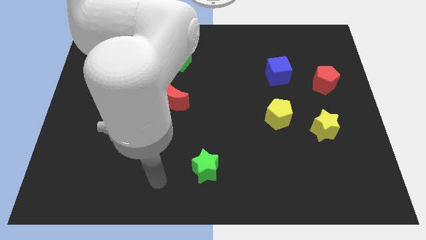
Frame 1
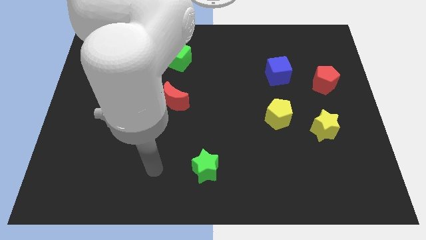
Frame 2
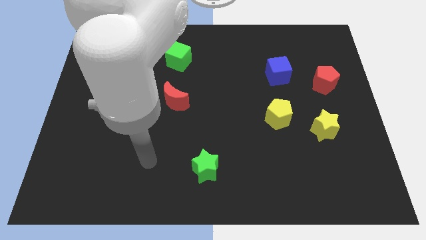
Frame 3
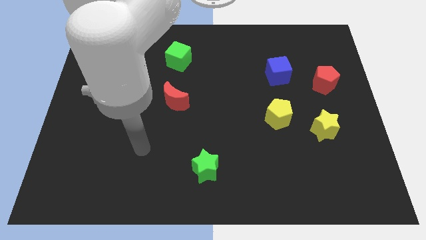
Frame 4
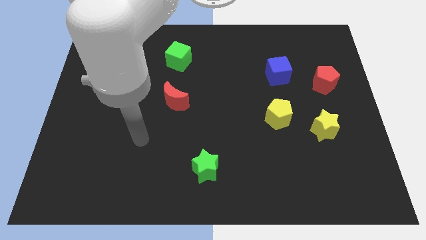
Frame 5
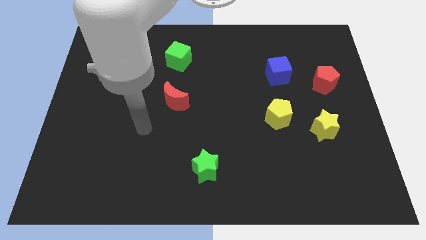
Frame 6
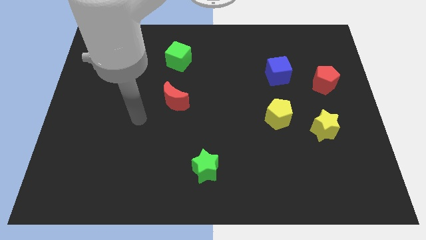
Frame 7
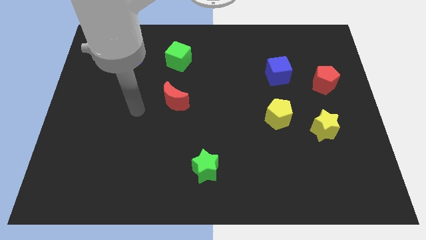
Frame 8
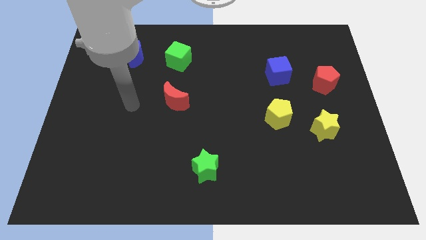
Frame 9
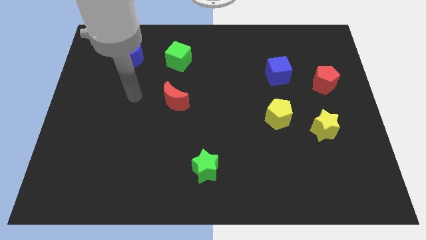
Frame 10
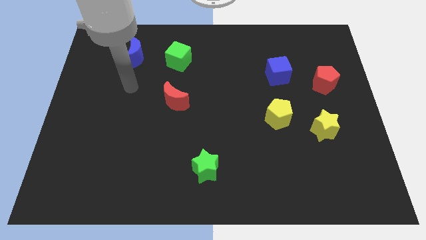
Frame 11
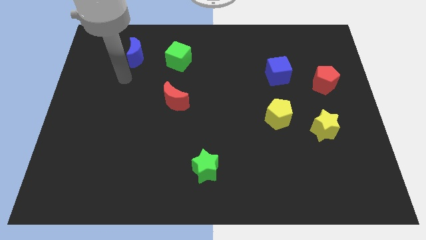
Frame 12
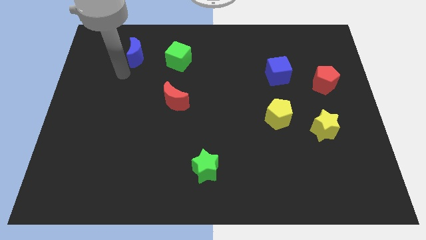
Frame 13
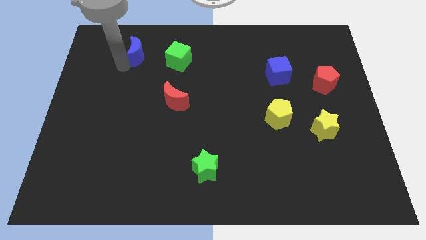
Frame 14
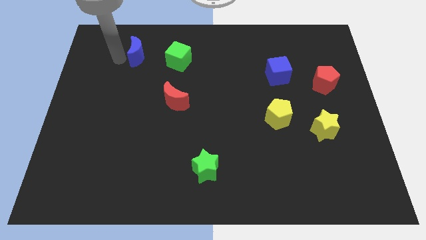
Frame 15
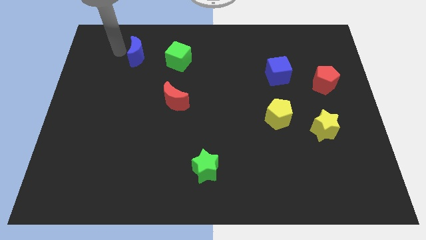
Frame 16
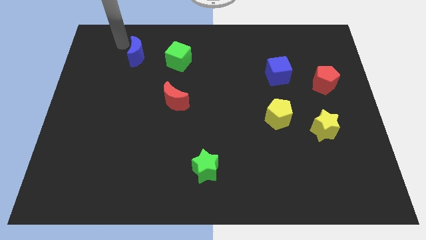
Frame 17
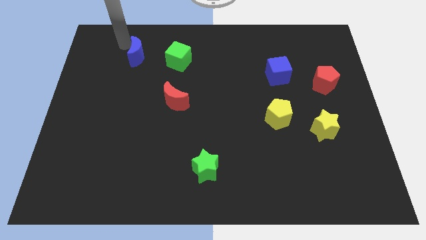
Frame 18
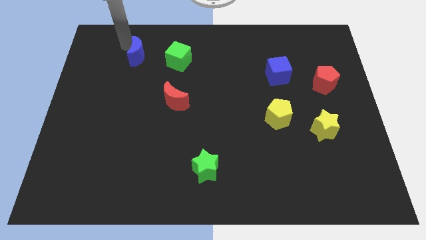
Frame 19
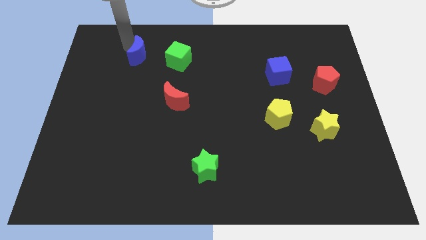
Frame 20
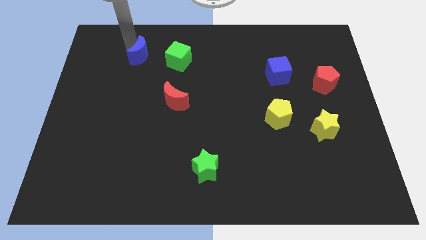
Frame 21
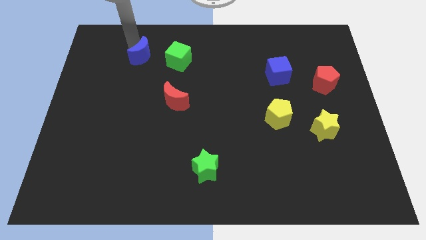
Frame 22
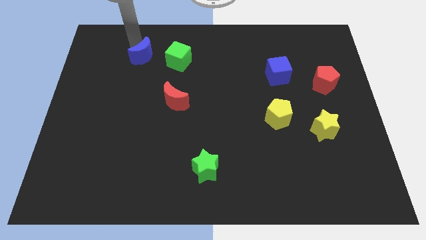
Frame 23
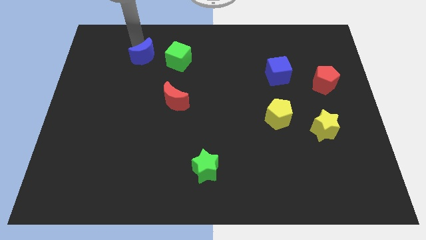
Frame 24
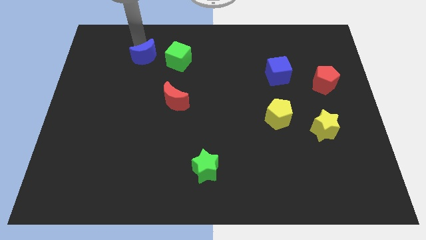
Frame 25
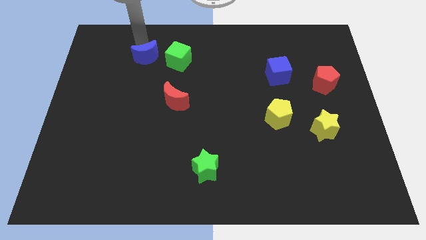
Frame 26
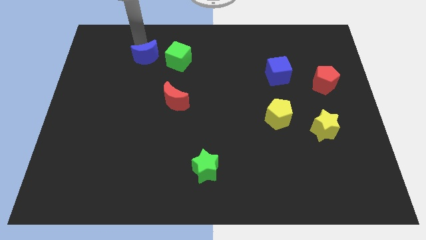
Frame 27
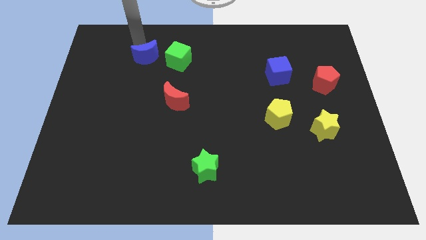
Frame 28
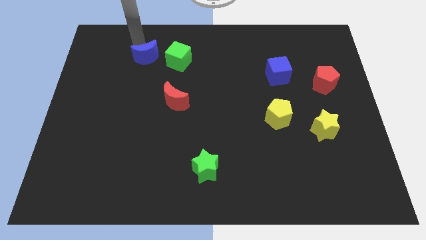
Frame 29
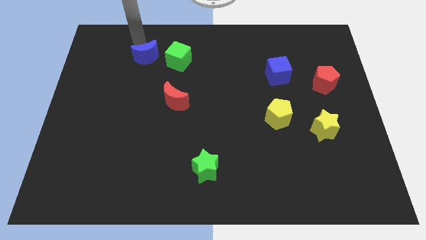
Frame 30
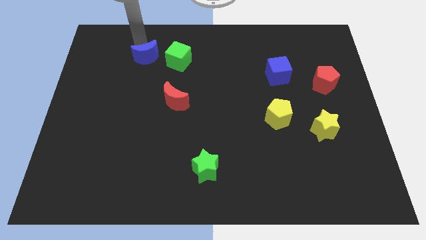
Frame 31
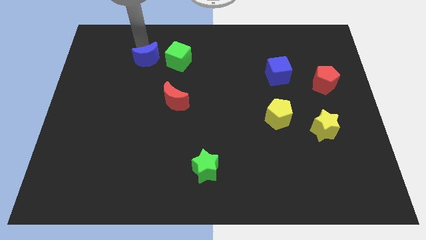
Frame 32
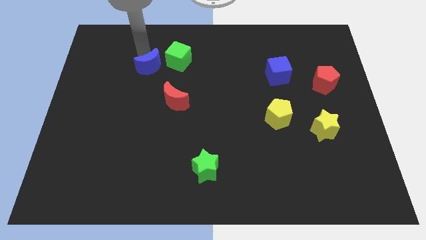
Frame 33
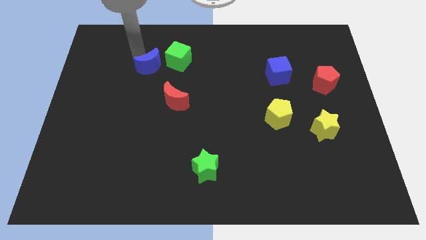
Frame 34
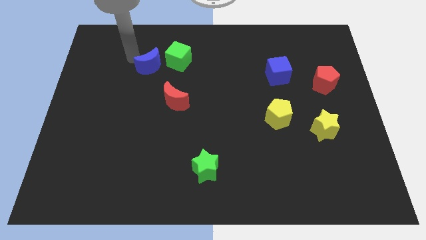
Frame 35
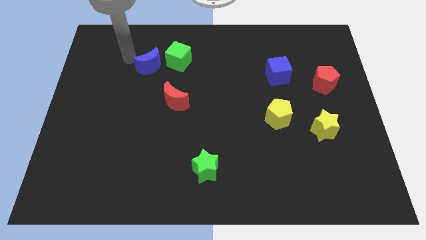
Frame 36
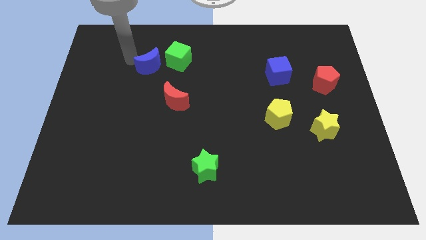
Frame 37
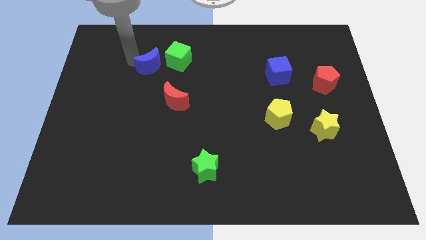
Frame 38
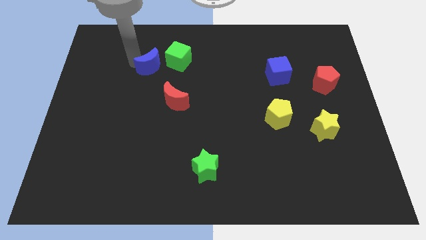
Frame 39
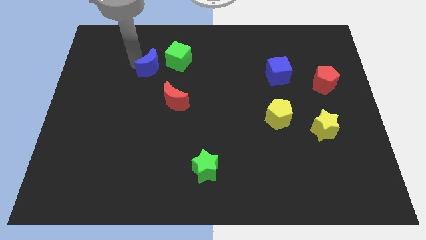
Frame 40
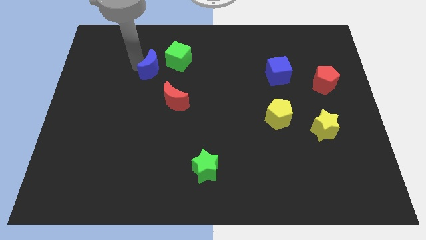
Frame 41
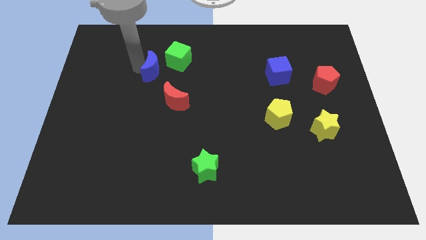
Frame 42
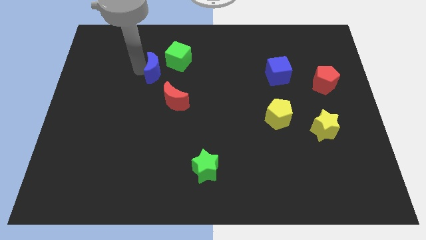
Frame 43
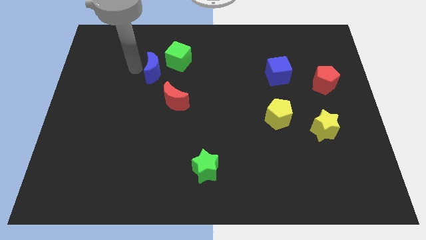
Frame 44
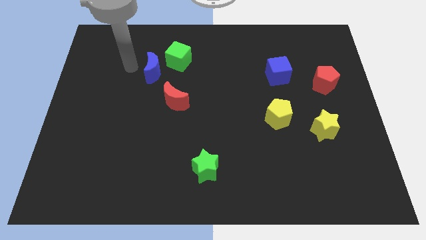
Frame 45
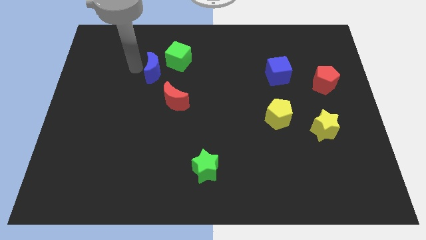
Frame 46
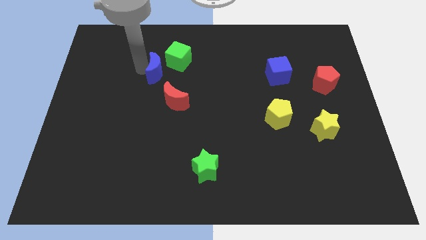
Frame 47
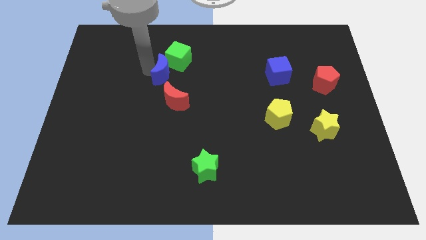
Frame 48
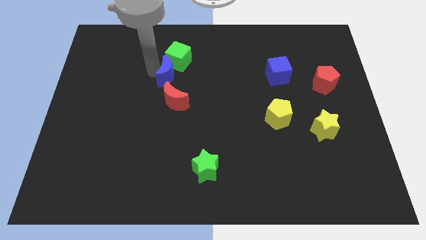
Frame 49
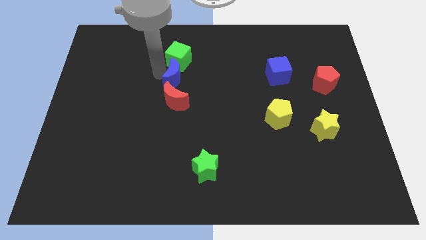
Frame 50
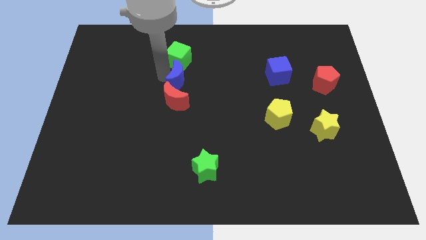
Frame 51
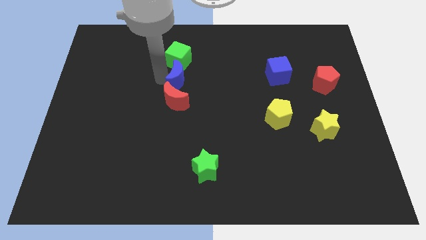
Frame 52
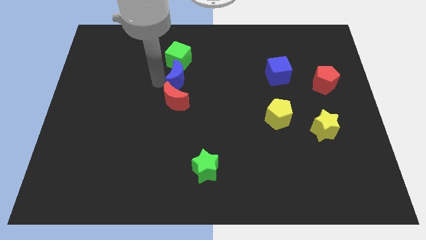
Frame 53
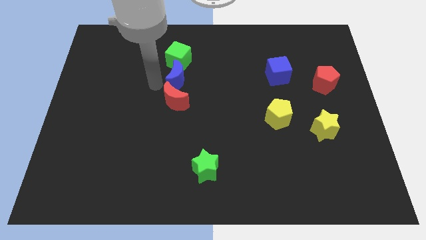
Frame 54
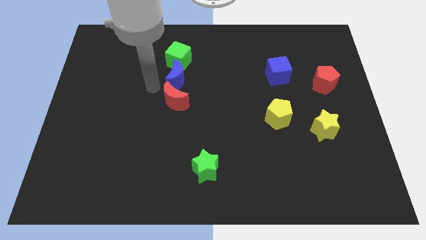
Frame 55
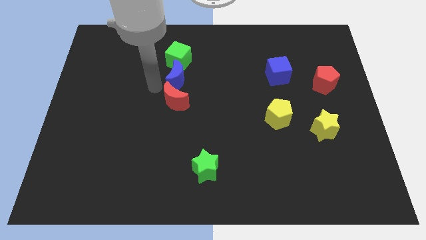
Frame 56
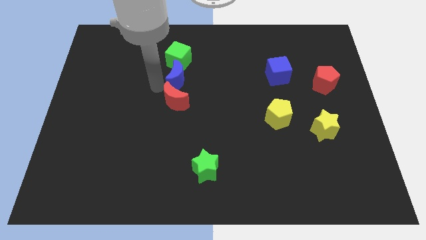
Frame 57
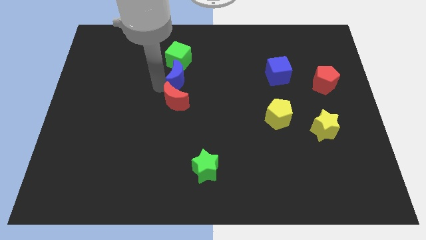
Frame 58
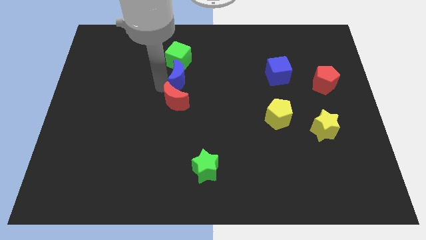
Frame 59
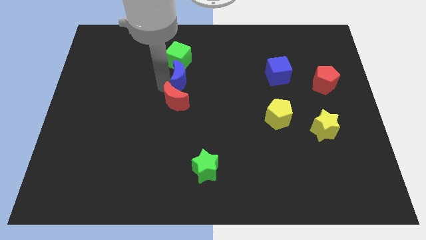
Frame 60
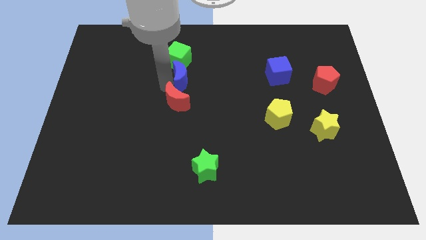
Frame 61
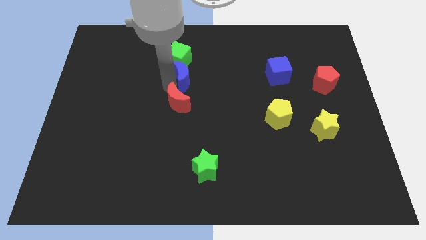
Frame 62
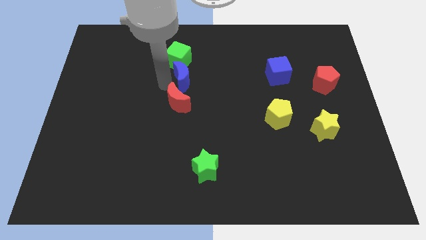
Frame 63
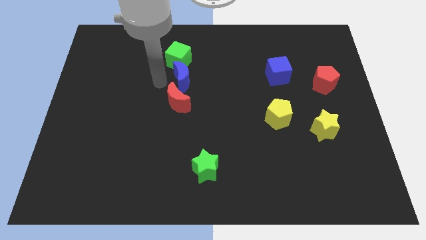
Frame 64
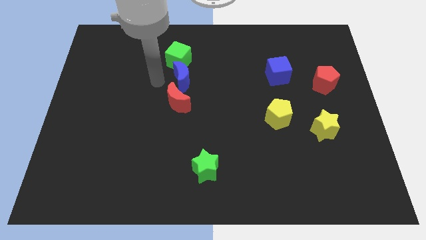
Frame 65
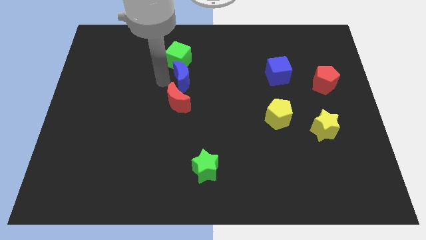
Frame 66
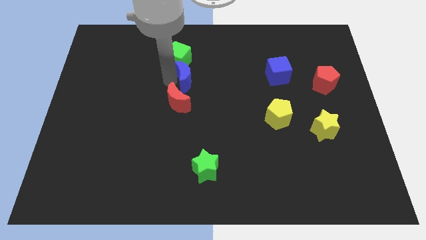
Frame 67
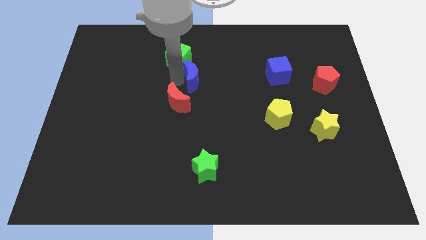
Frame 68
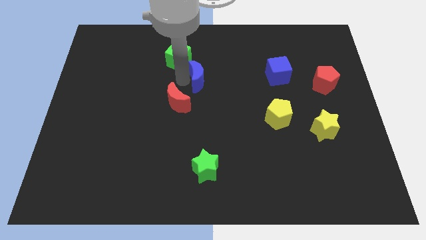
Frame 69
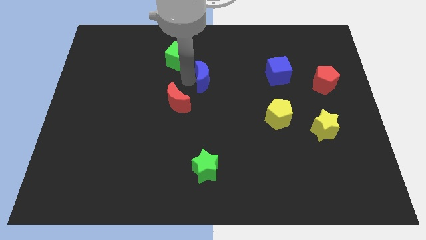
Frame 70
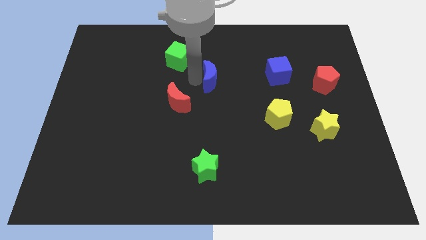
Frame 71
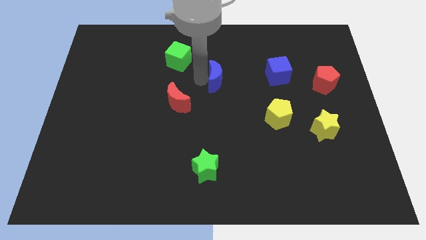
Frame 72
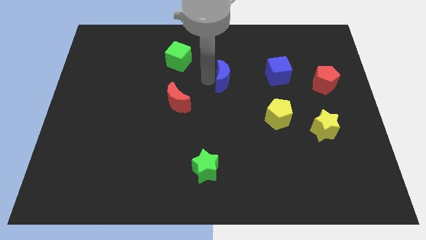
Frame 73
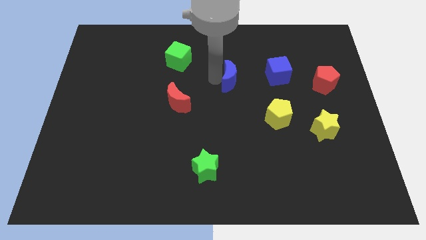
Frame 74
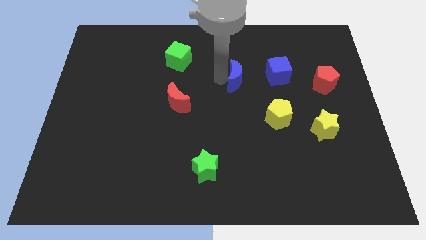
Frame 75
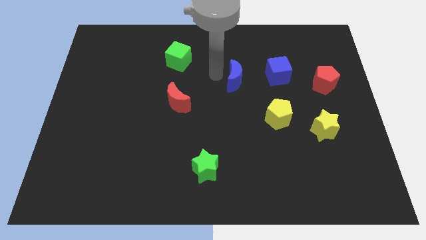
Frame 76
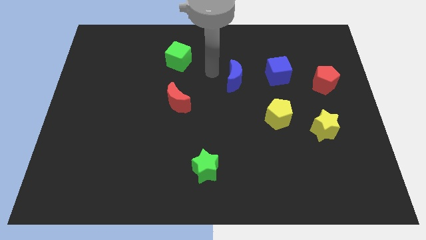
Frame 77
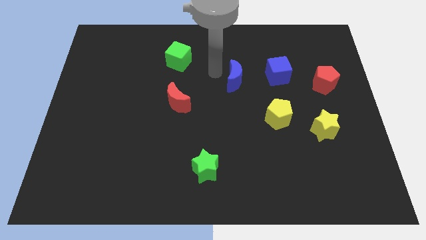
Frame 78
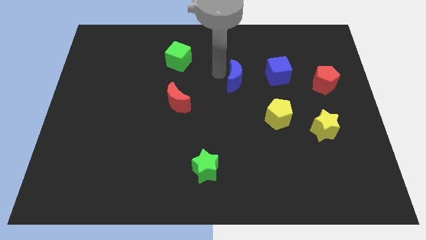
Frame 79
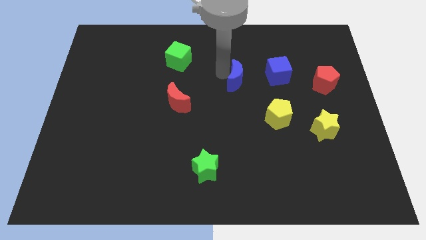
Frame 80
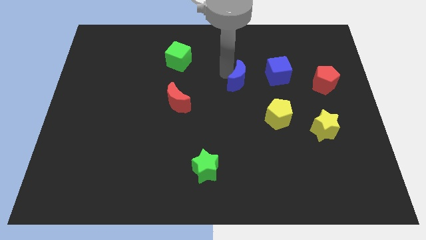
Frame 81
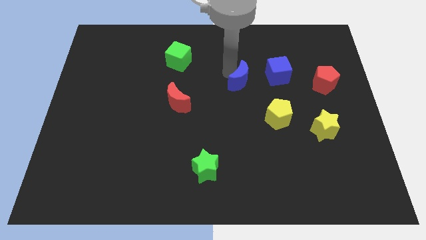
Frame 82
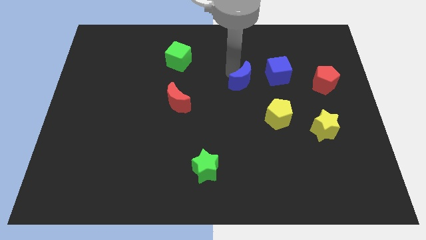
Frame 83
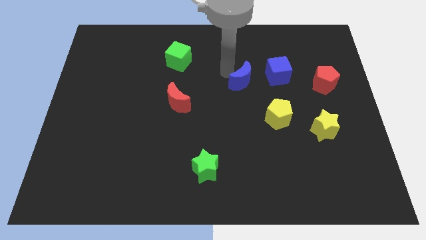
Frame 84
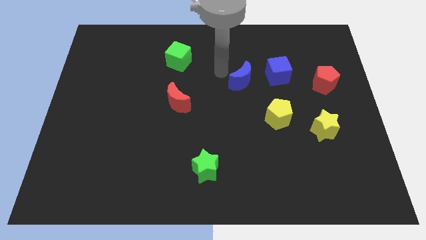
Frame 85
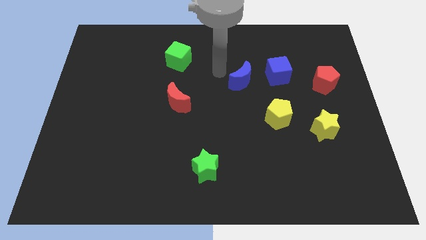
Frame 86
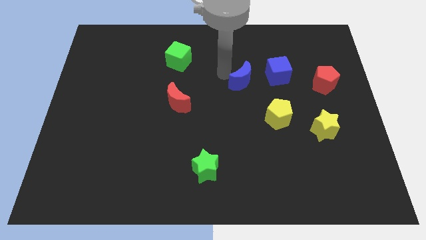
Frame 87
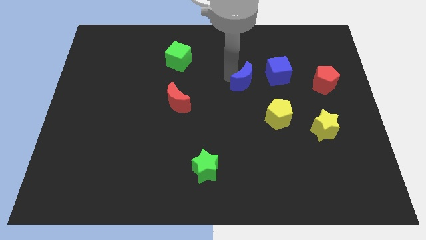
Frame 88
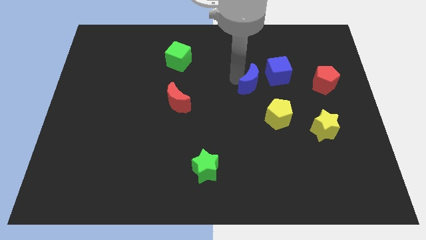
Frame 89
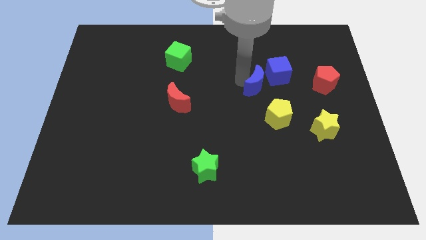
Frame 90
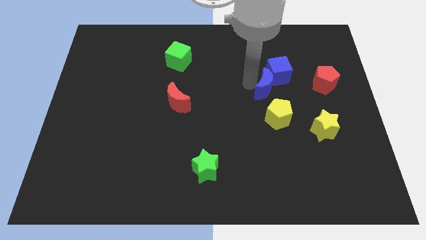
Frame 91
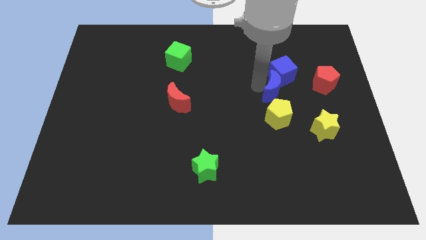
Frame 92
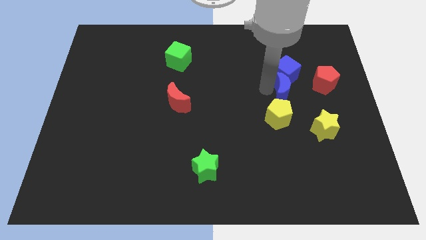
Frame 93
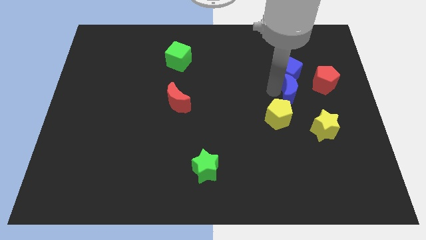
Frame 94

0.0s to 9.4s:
move the blue moon to the bottom left side of the red pentagon
